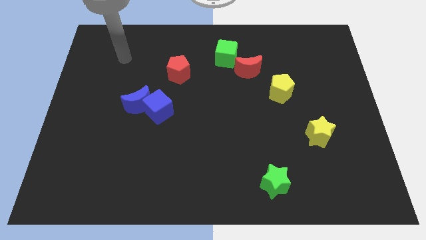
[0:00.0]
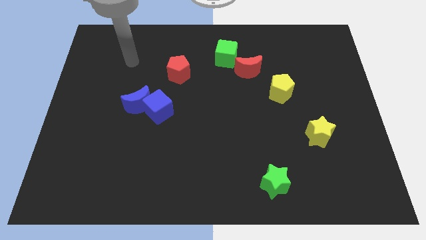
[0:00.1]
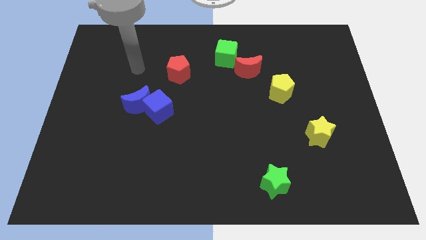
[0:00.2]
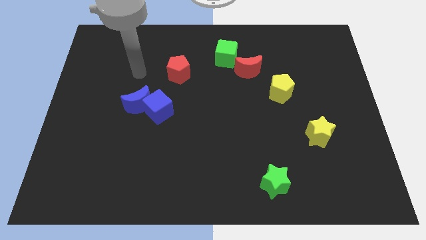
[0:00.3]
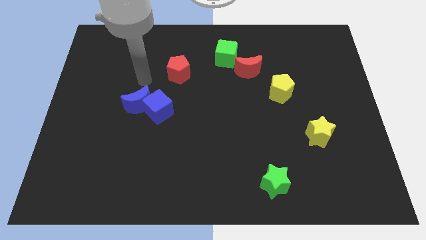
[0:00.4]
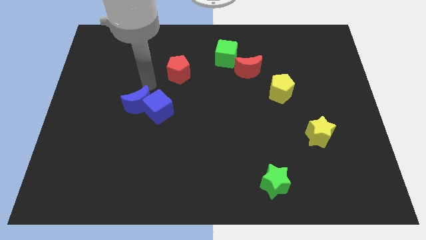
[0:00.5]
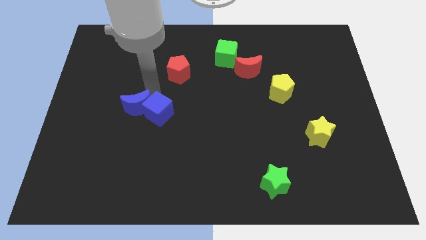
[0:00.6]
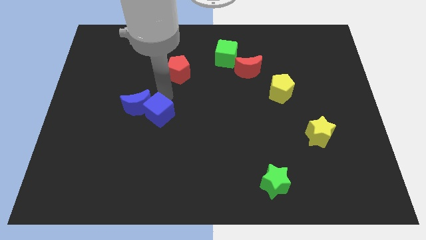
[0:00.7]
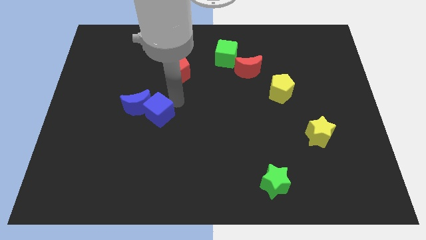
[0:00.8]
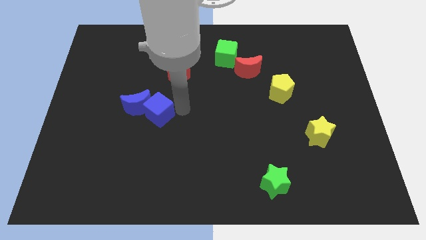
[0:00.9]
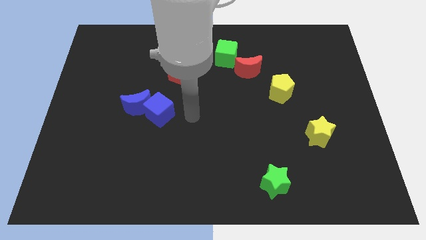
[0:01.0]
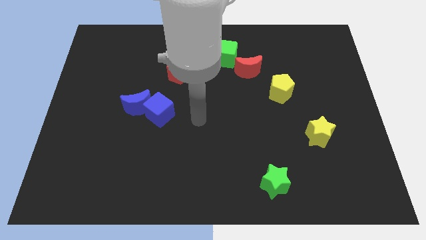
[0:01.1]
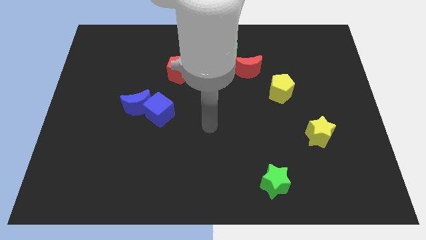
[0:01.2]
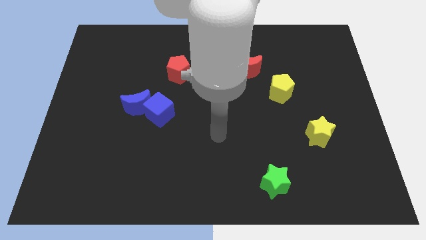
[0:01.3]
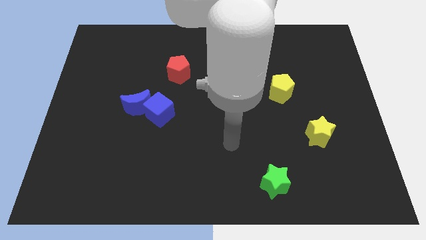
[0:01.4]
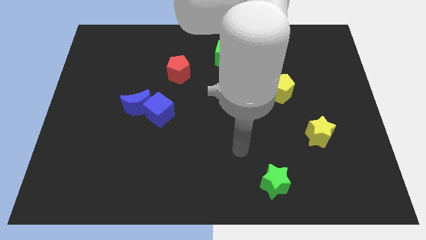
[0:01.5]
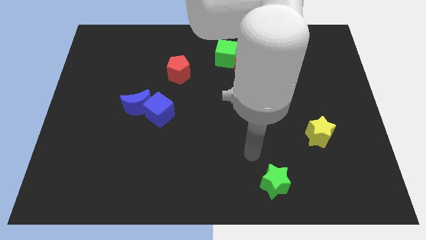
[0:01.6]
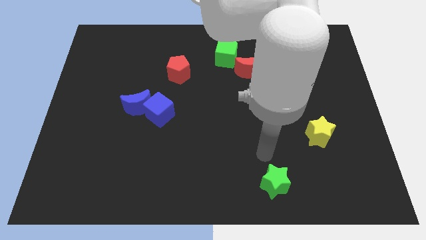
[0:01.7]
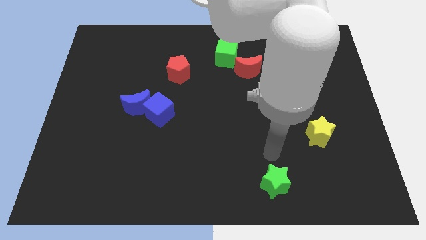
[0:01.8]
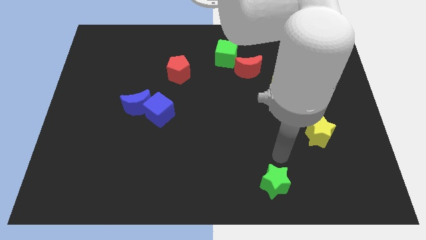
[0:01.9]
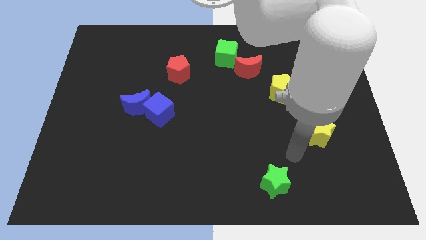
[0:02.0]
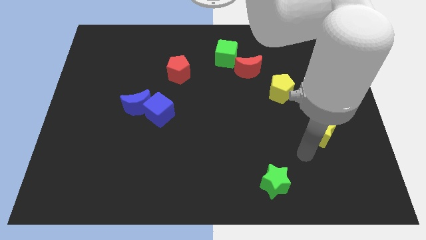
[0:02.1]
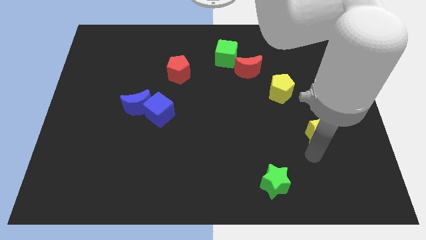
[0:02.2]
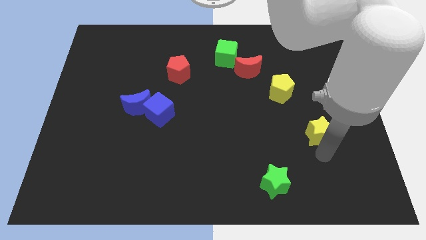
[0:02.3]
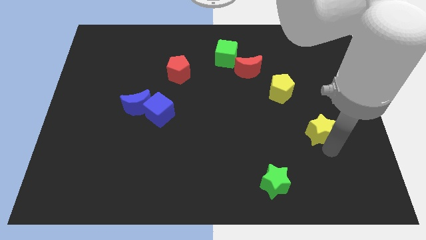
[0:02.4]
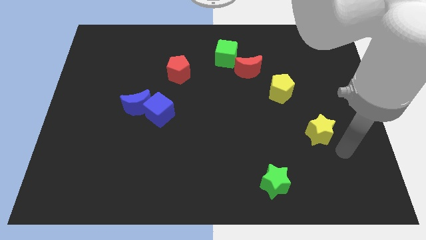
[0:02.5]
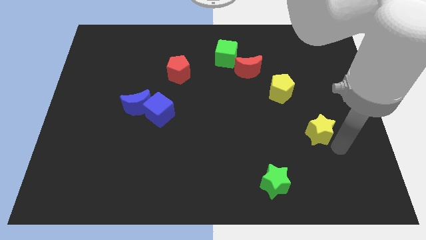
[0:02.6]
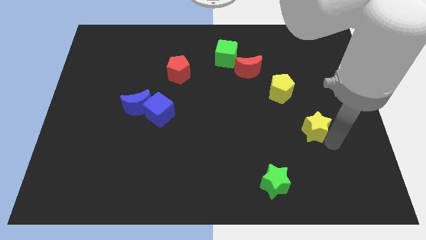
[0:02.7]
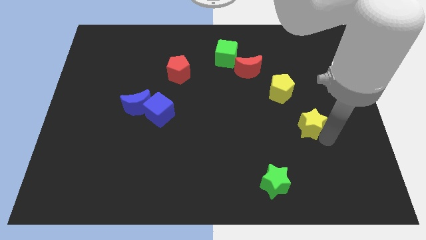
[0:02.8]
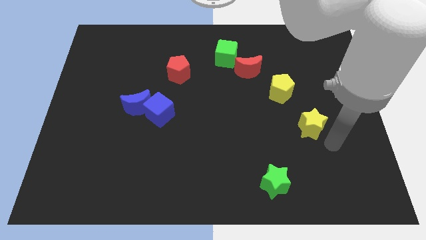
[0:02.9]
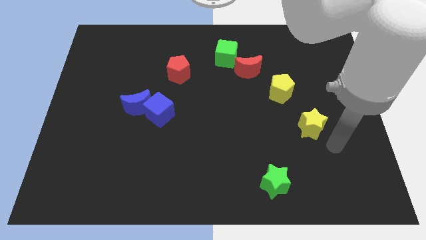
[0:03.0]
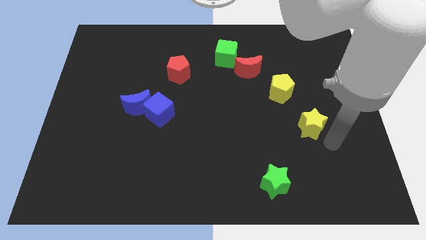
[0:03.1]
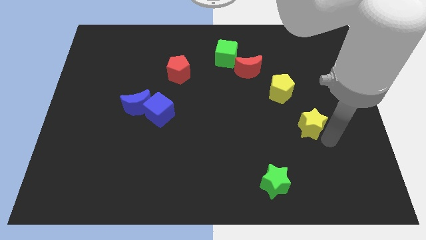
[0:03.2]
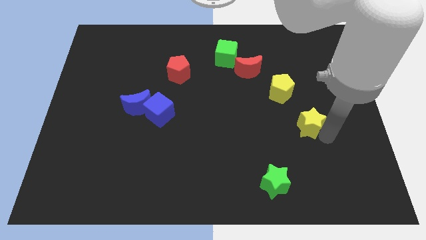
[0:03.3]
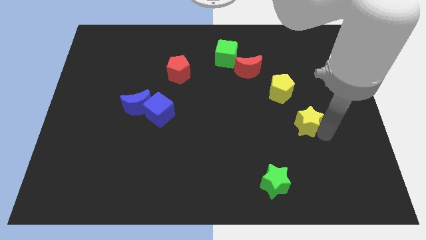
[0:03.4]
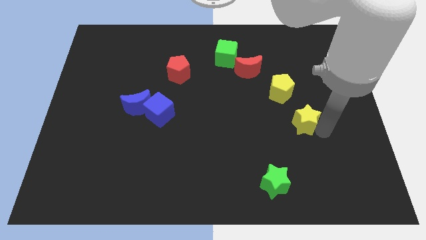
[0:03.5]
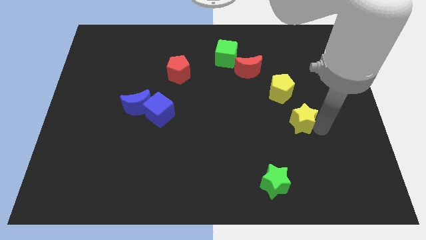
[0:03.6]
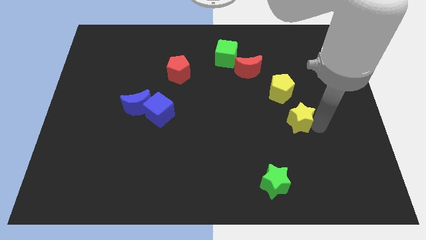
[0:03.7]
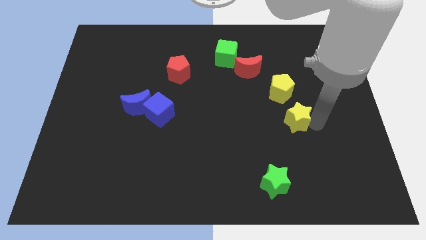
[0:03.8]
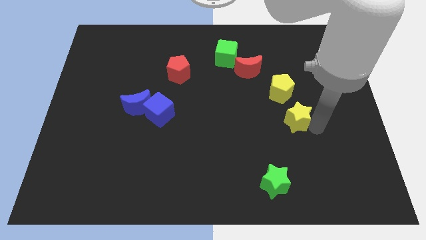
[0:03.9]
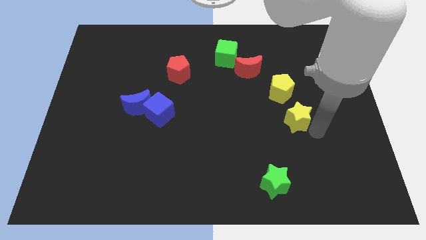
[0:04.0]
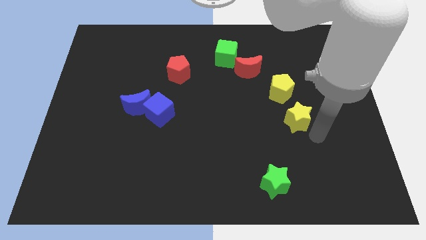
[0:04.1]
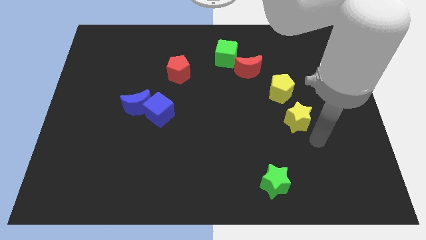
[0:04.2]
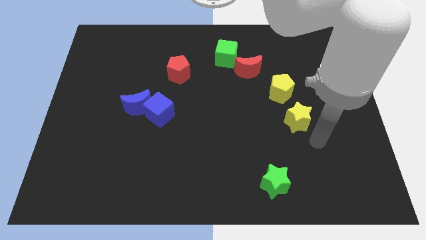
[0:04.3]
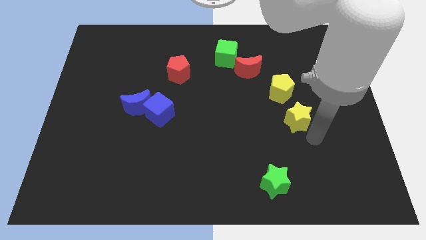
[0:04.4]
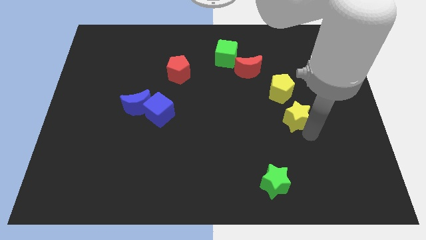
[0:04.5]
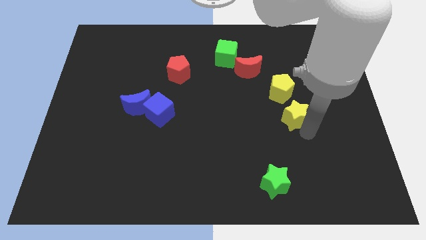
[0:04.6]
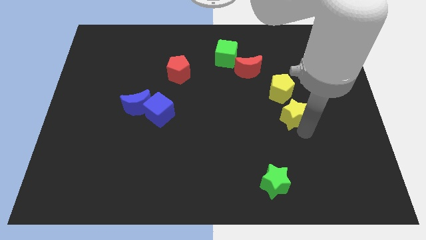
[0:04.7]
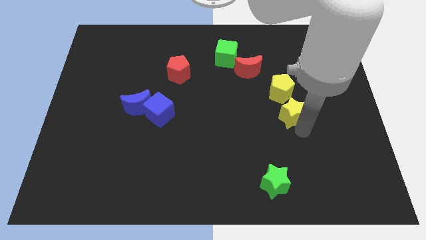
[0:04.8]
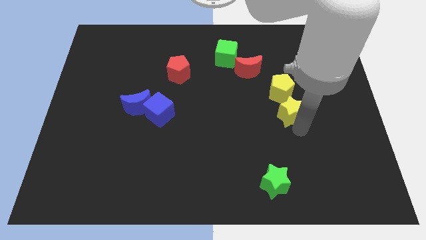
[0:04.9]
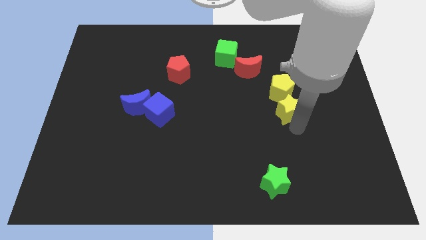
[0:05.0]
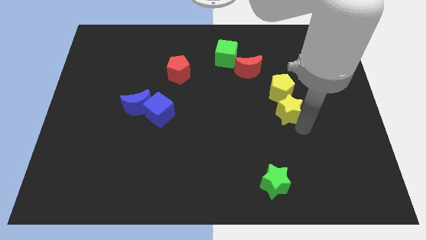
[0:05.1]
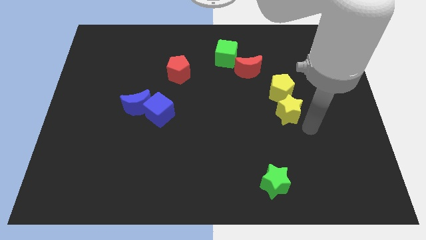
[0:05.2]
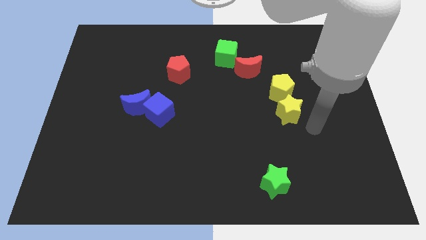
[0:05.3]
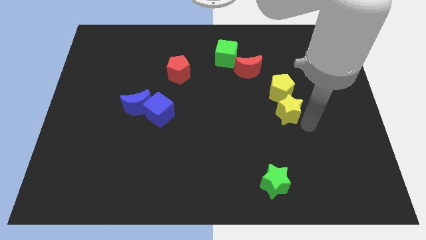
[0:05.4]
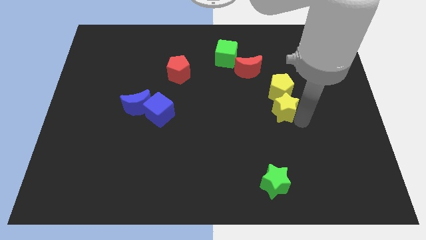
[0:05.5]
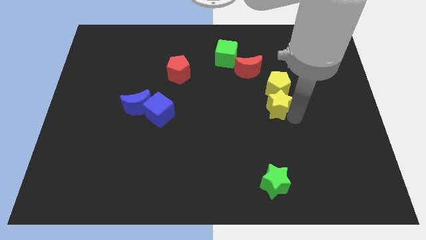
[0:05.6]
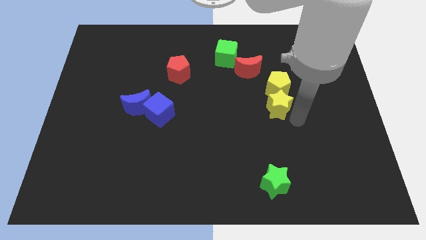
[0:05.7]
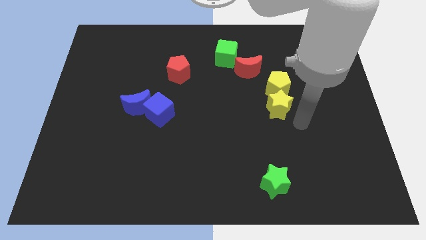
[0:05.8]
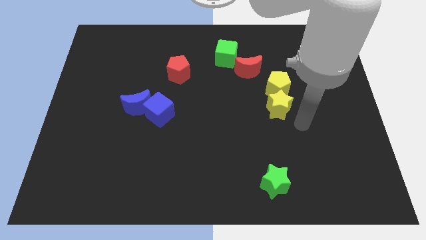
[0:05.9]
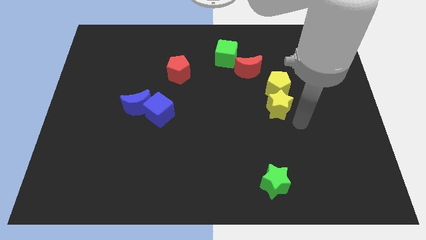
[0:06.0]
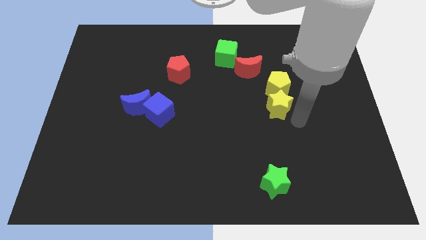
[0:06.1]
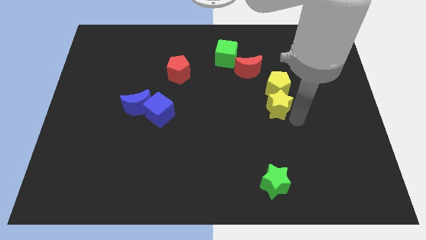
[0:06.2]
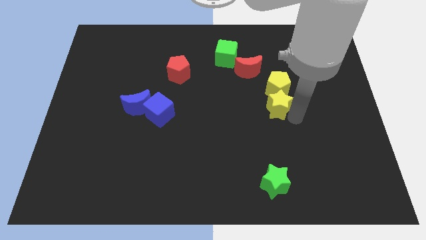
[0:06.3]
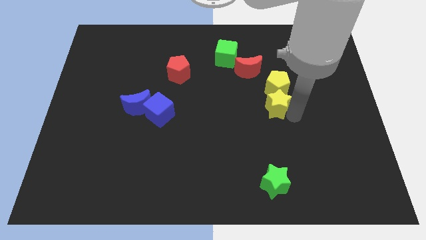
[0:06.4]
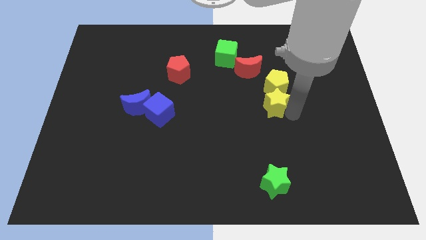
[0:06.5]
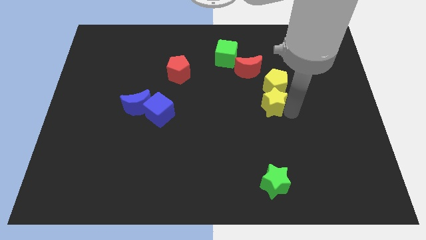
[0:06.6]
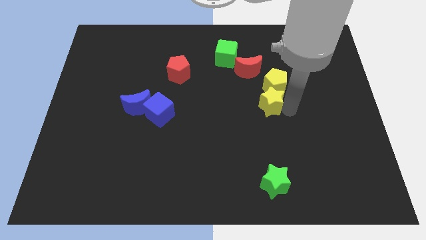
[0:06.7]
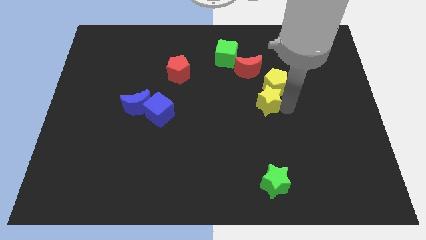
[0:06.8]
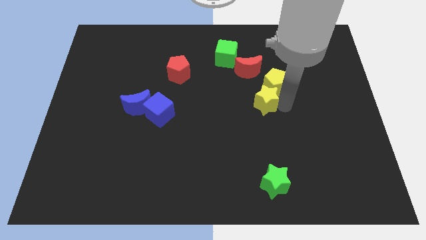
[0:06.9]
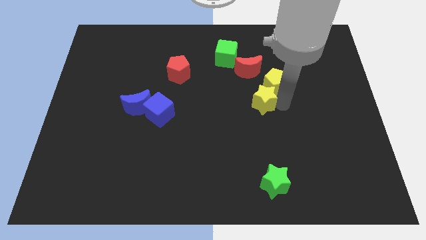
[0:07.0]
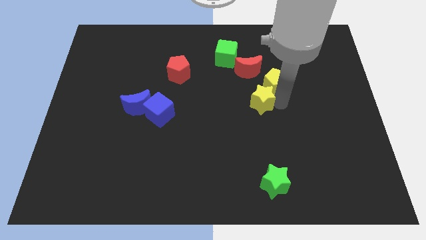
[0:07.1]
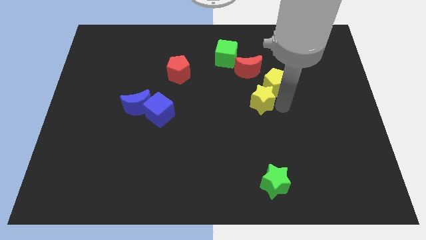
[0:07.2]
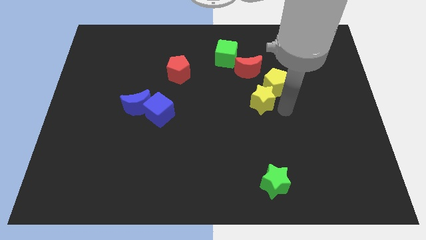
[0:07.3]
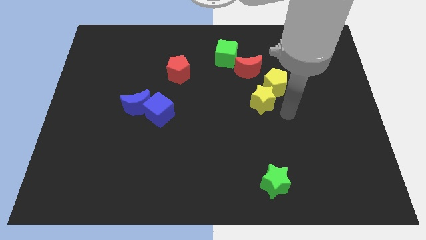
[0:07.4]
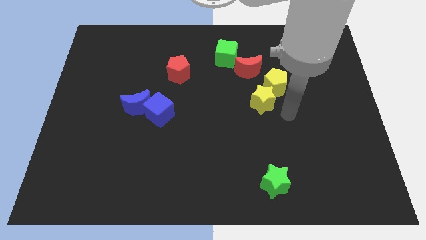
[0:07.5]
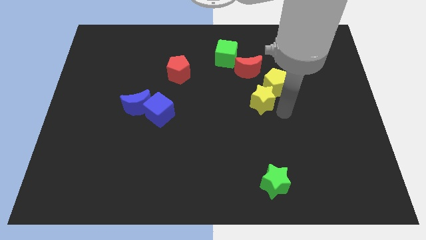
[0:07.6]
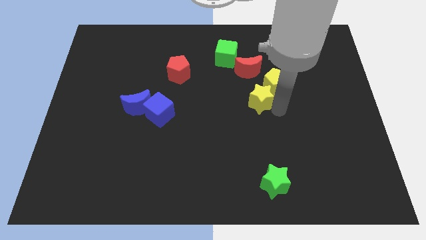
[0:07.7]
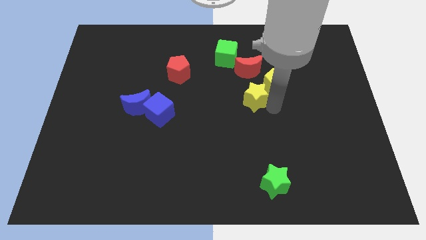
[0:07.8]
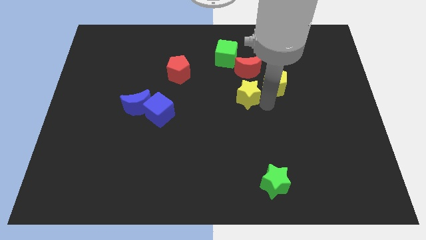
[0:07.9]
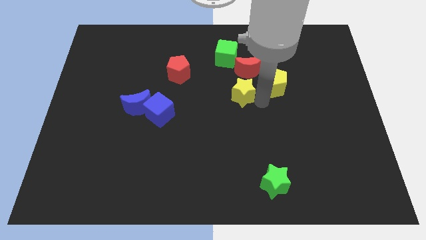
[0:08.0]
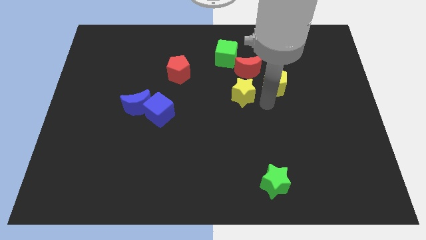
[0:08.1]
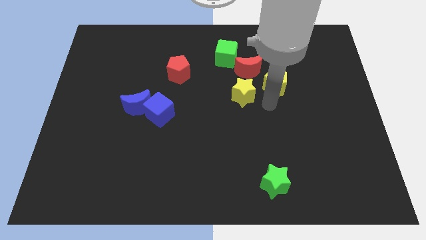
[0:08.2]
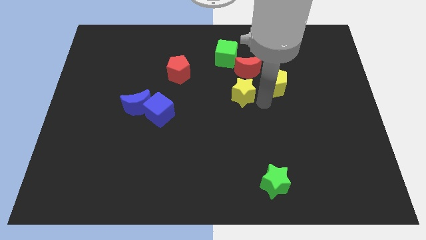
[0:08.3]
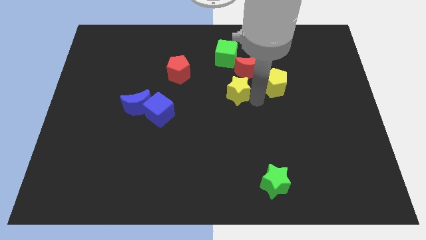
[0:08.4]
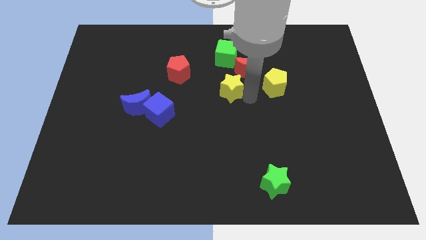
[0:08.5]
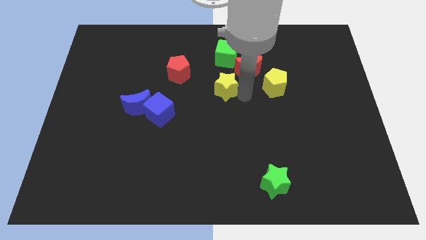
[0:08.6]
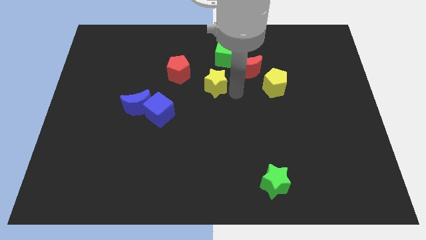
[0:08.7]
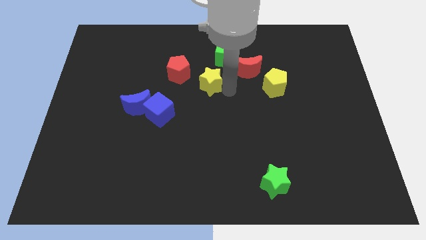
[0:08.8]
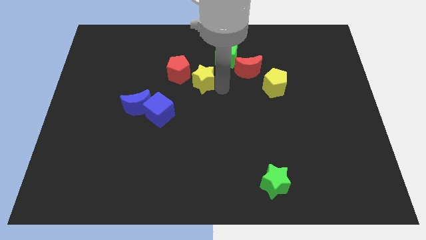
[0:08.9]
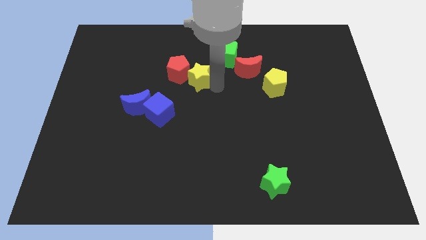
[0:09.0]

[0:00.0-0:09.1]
move the yellow star close to the red pentagon
